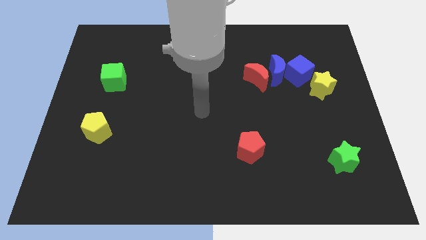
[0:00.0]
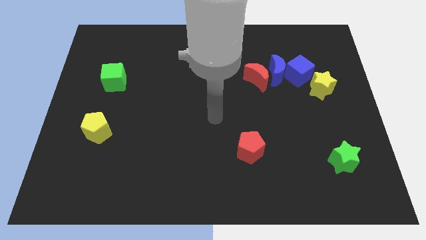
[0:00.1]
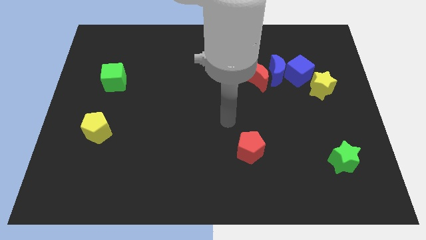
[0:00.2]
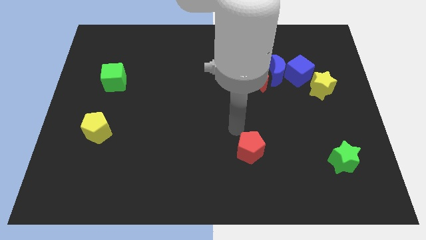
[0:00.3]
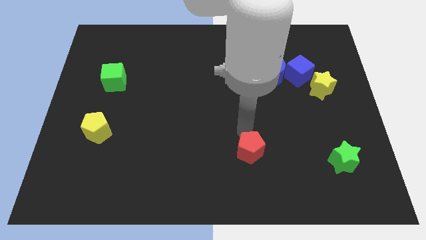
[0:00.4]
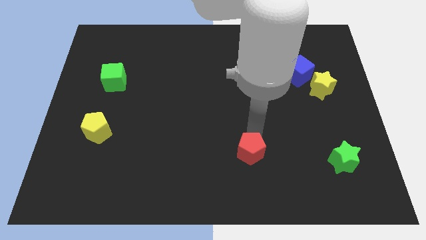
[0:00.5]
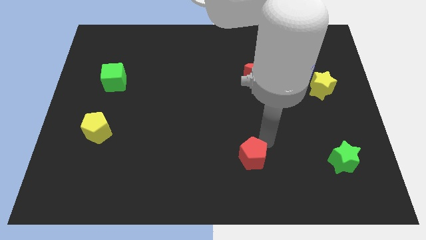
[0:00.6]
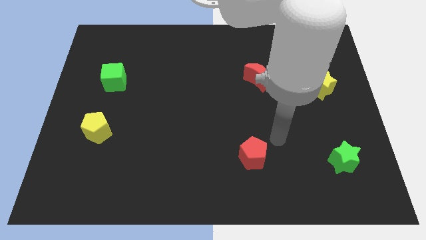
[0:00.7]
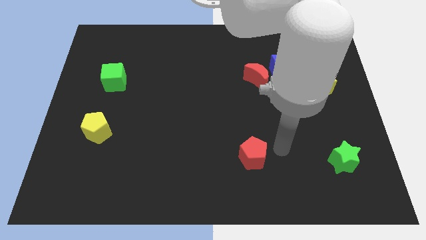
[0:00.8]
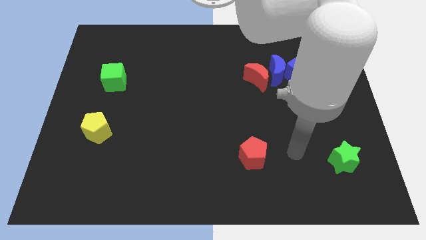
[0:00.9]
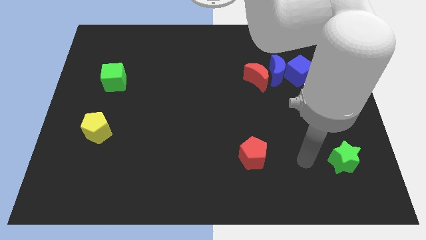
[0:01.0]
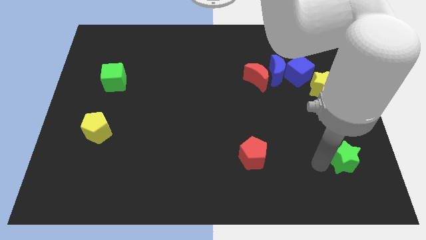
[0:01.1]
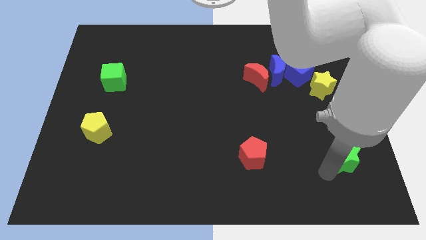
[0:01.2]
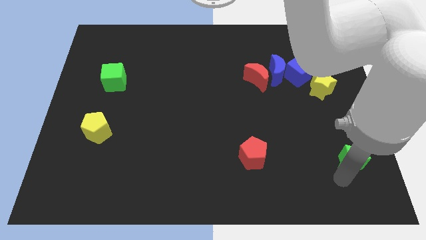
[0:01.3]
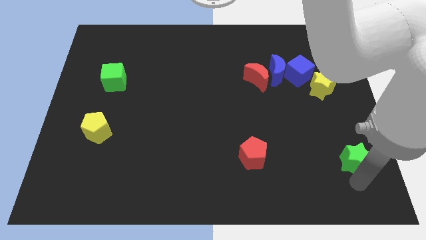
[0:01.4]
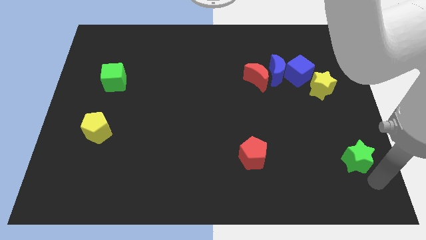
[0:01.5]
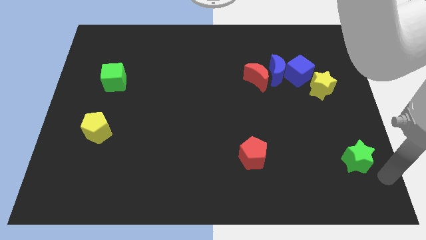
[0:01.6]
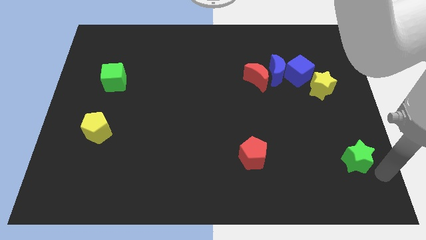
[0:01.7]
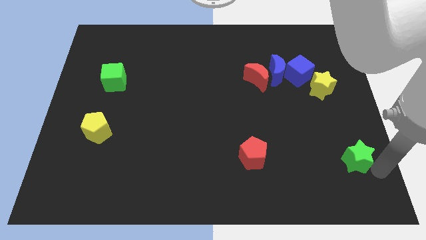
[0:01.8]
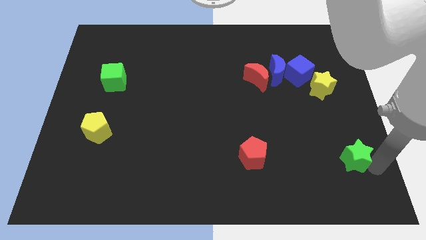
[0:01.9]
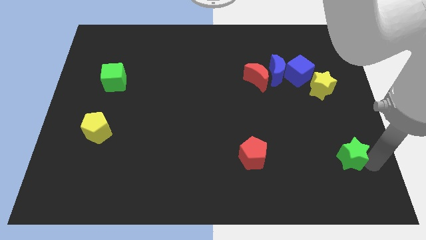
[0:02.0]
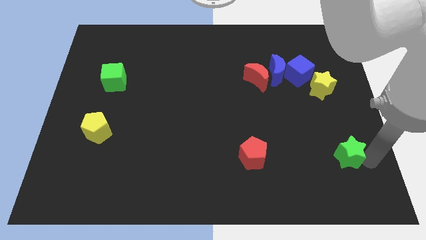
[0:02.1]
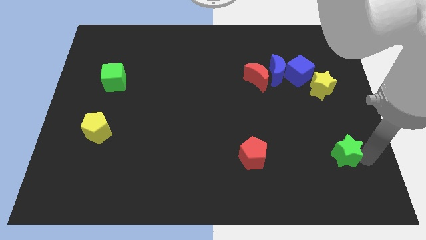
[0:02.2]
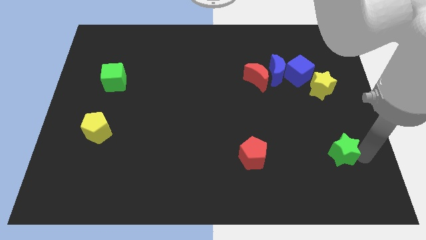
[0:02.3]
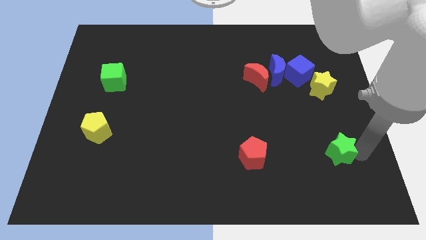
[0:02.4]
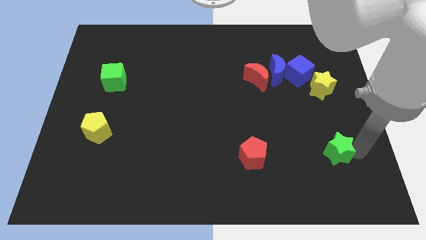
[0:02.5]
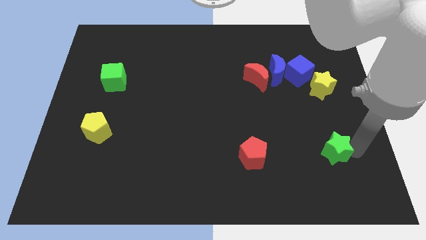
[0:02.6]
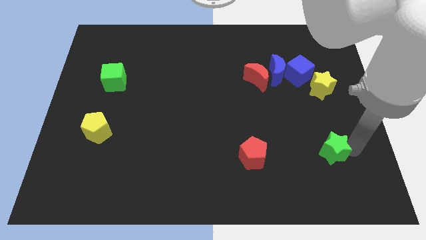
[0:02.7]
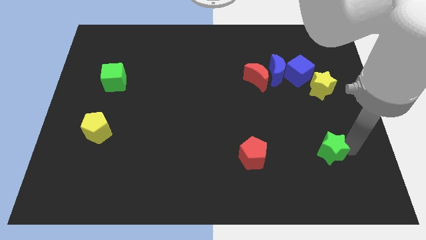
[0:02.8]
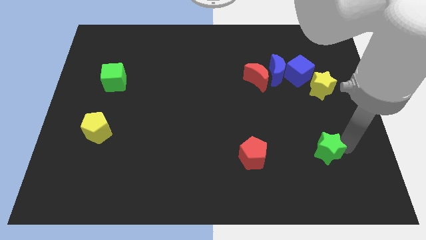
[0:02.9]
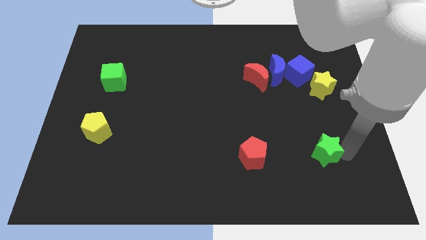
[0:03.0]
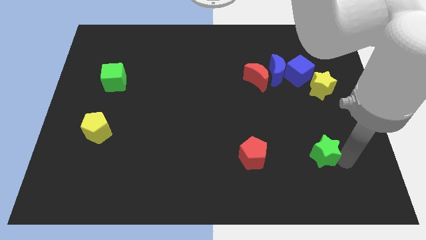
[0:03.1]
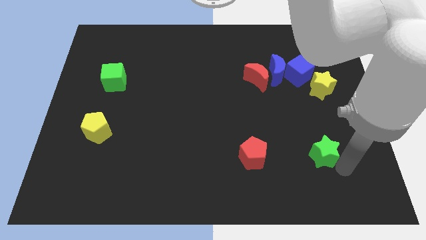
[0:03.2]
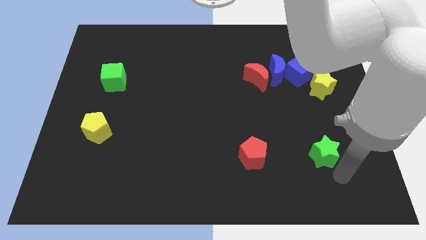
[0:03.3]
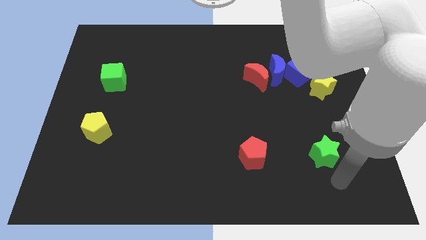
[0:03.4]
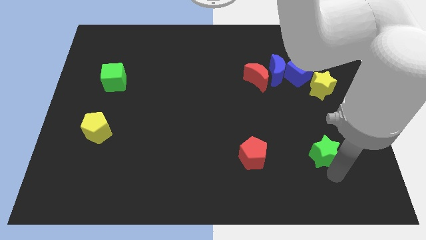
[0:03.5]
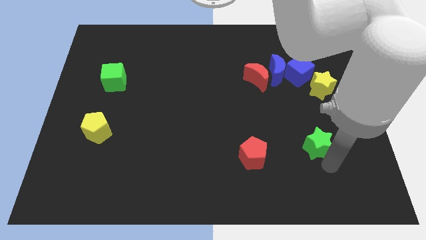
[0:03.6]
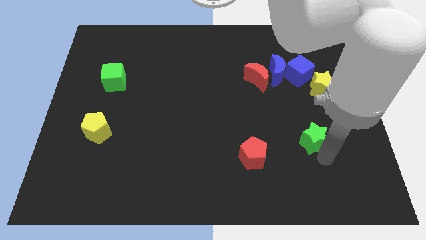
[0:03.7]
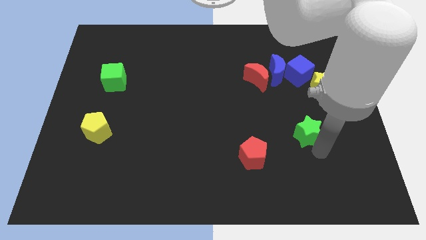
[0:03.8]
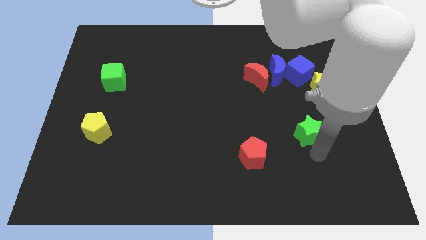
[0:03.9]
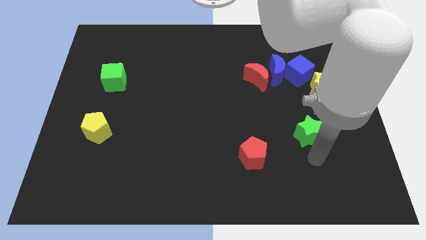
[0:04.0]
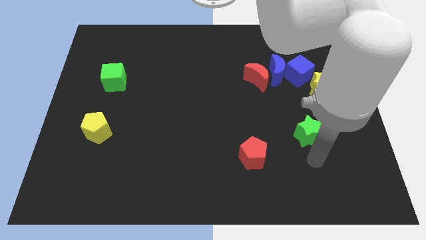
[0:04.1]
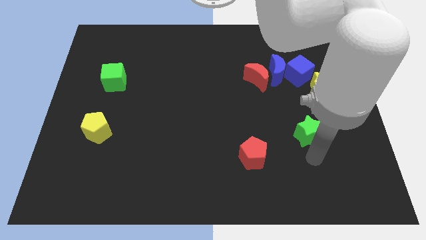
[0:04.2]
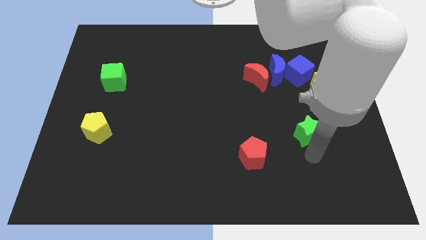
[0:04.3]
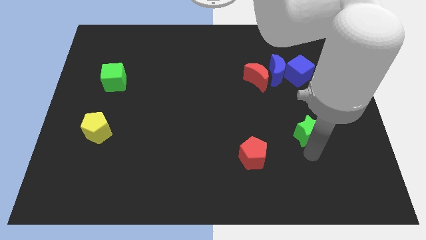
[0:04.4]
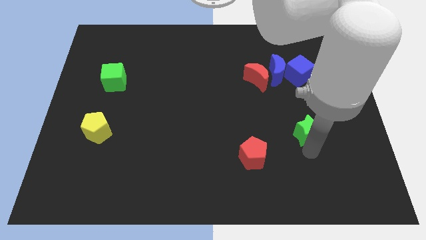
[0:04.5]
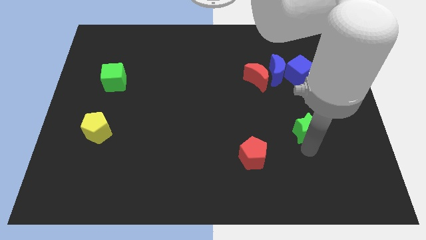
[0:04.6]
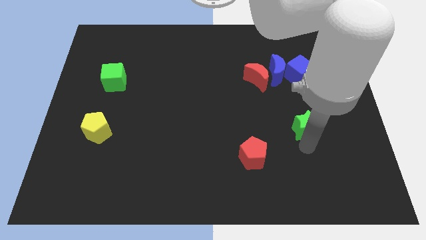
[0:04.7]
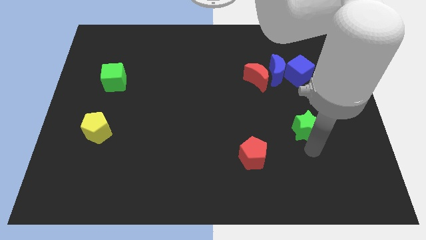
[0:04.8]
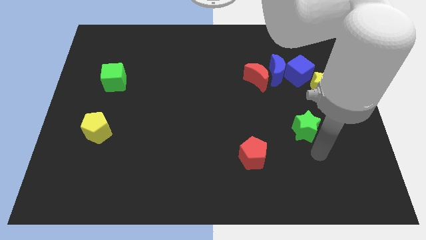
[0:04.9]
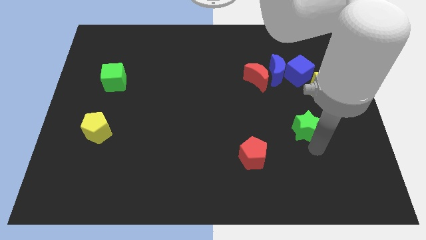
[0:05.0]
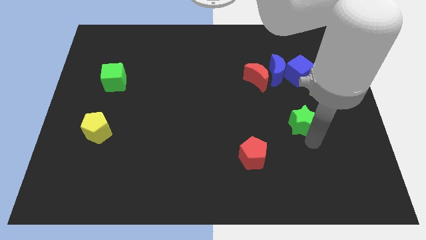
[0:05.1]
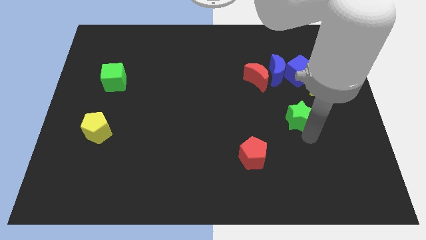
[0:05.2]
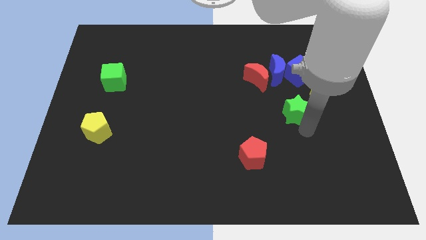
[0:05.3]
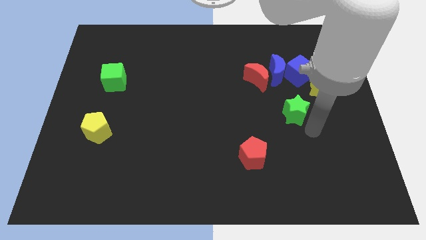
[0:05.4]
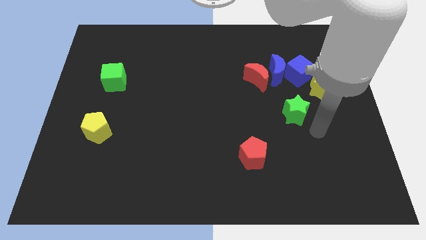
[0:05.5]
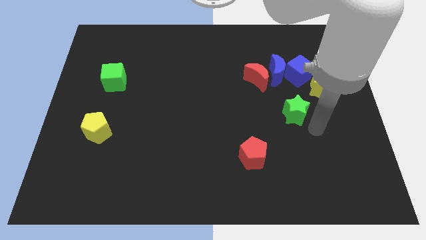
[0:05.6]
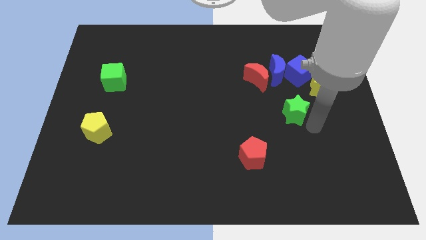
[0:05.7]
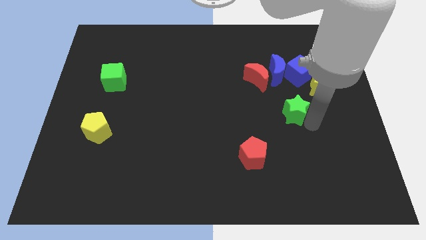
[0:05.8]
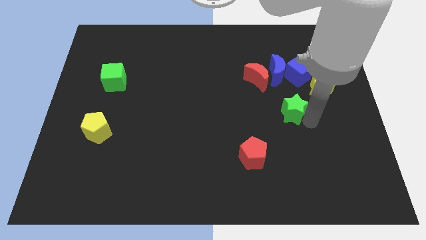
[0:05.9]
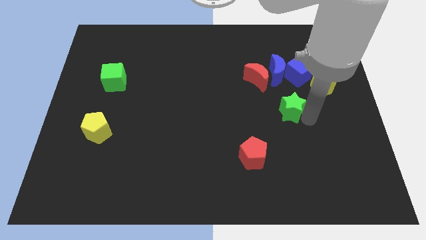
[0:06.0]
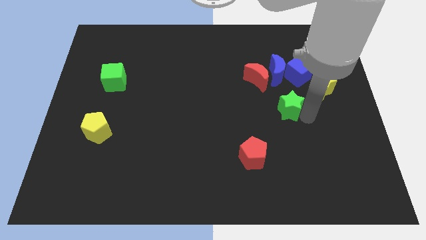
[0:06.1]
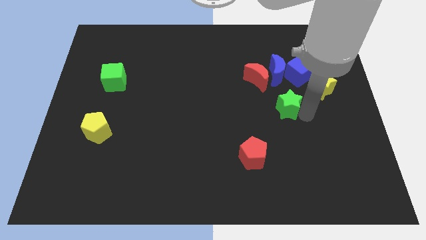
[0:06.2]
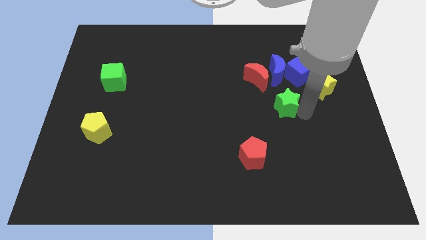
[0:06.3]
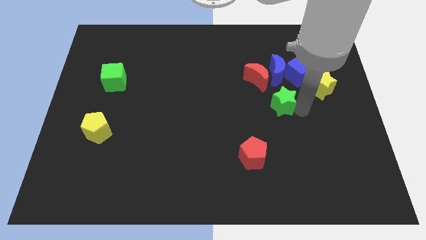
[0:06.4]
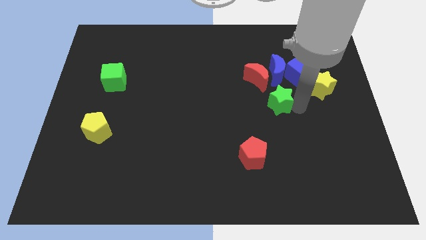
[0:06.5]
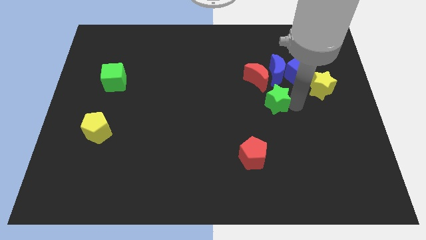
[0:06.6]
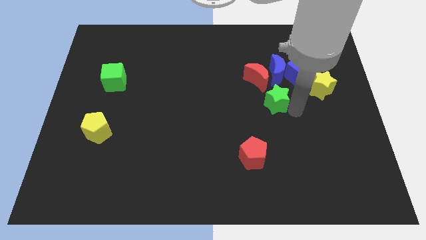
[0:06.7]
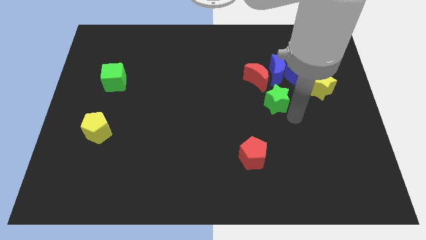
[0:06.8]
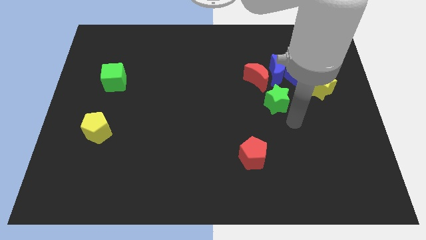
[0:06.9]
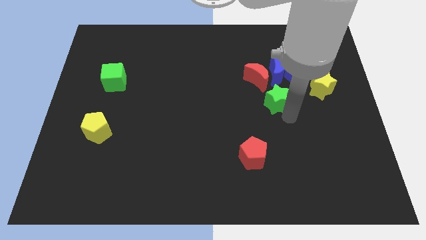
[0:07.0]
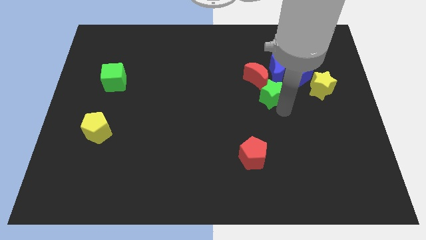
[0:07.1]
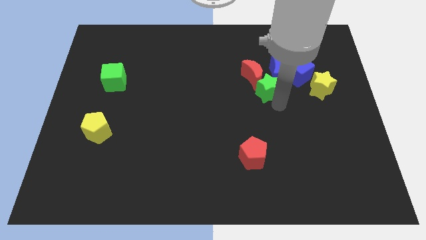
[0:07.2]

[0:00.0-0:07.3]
put the green star next to the red moon

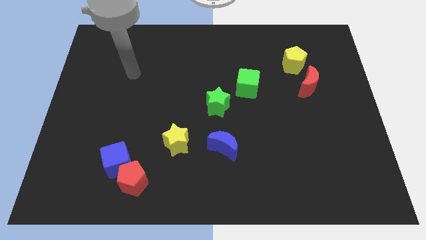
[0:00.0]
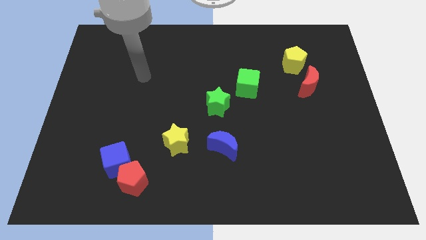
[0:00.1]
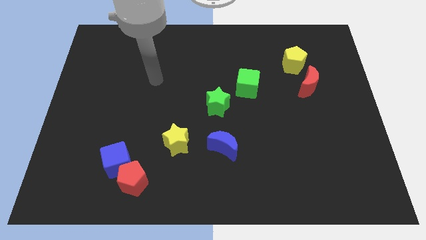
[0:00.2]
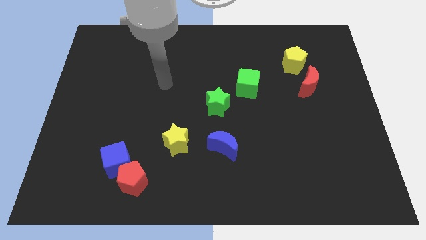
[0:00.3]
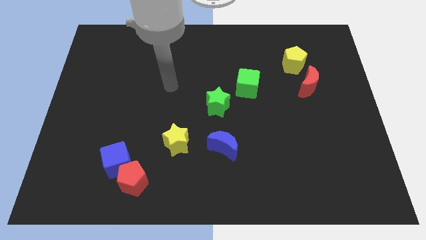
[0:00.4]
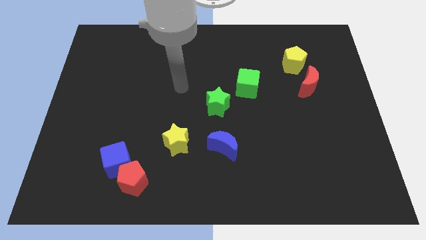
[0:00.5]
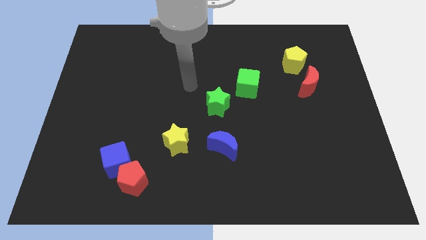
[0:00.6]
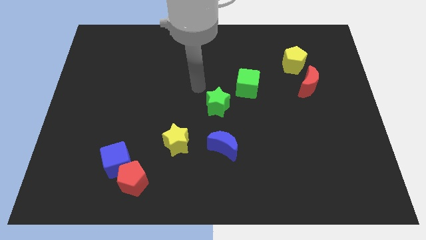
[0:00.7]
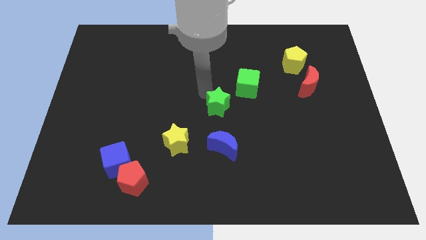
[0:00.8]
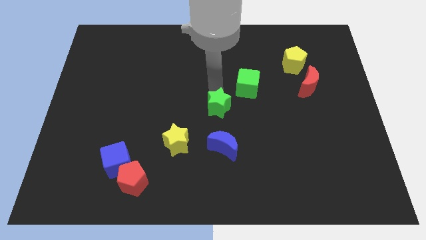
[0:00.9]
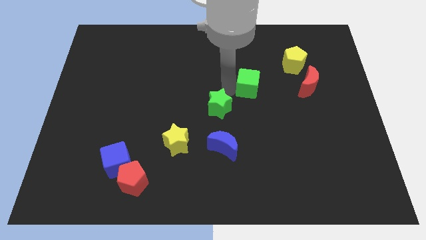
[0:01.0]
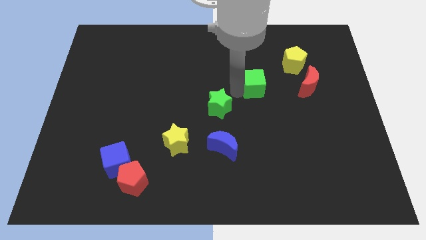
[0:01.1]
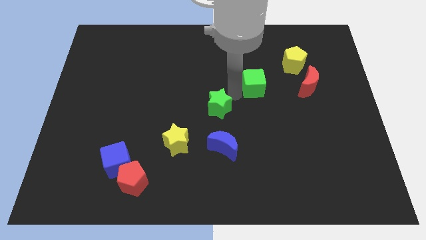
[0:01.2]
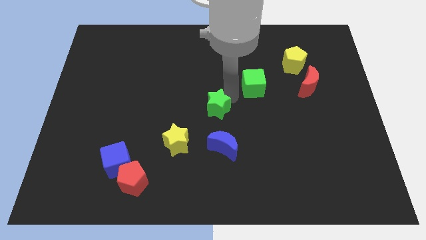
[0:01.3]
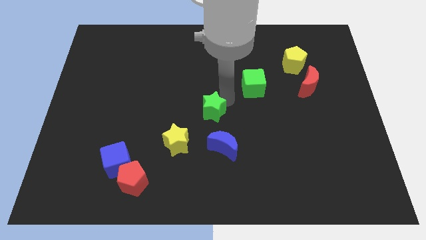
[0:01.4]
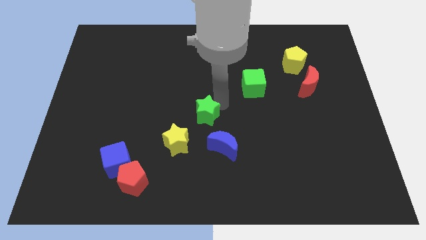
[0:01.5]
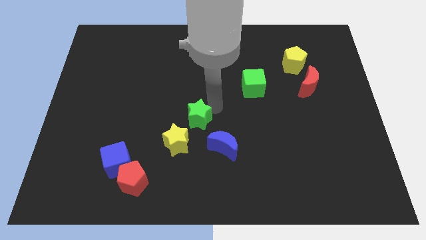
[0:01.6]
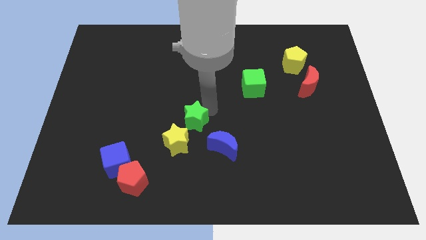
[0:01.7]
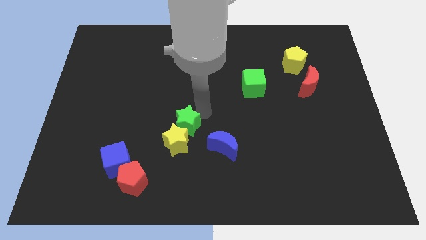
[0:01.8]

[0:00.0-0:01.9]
push the green star close to the yellow star
